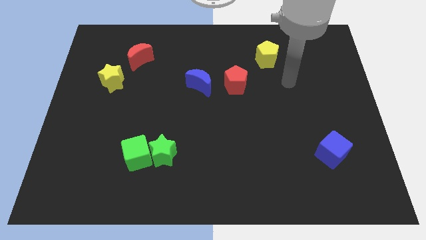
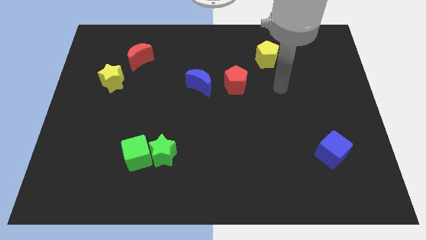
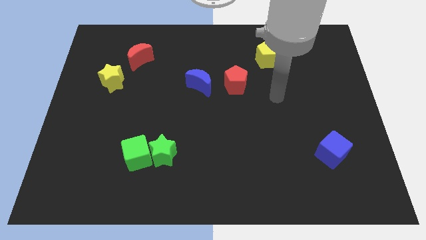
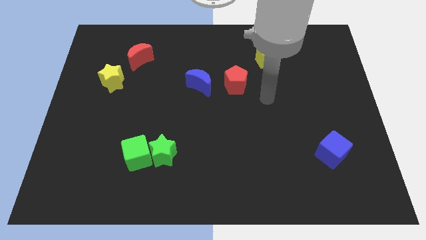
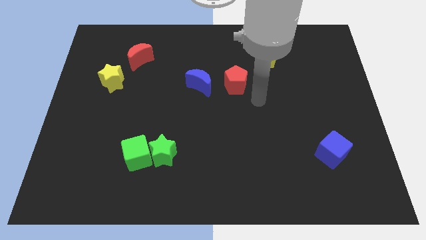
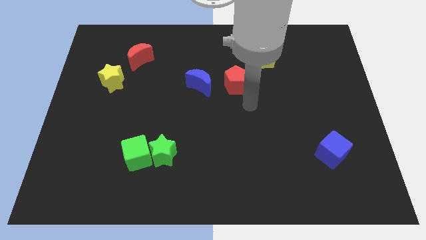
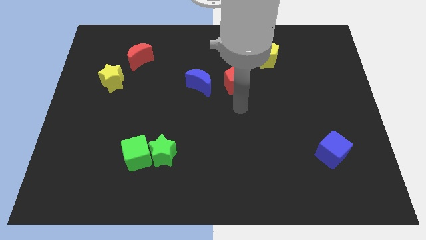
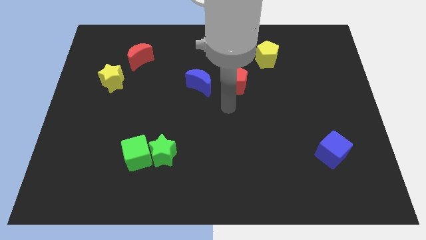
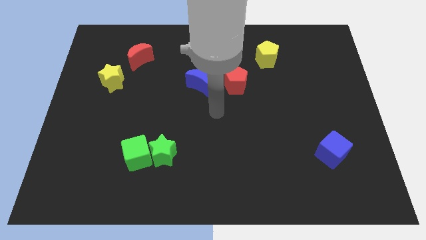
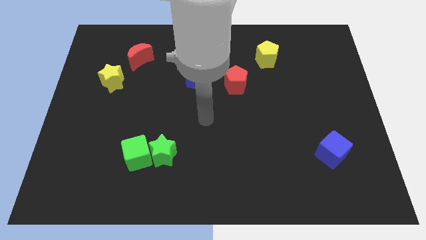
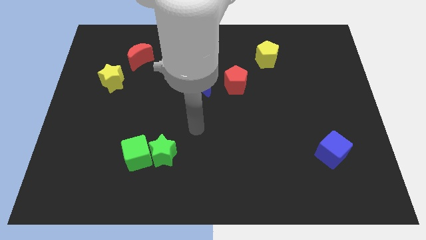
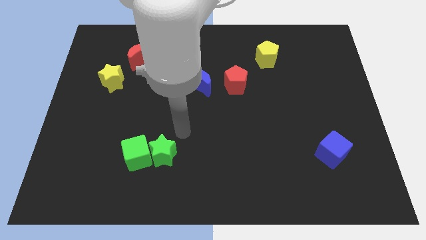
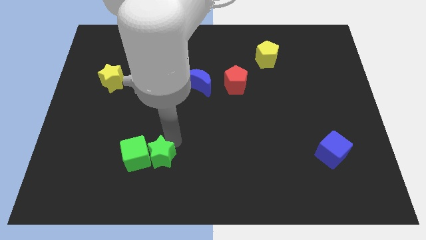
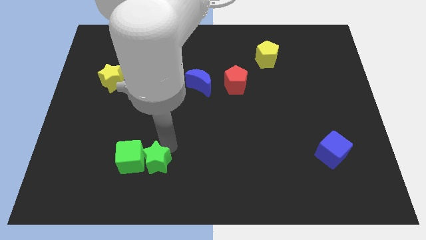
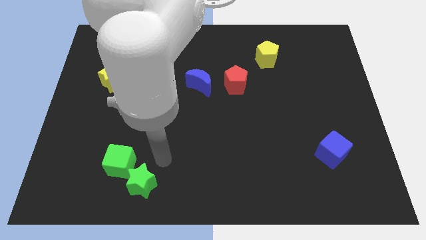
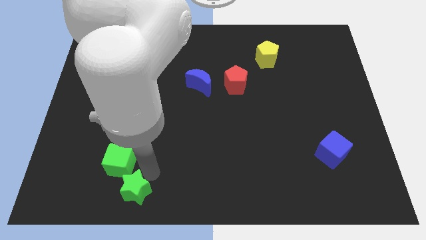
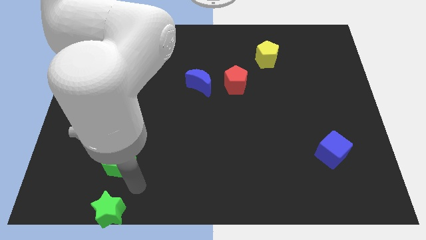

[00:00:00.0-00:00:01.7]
separate the green cube from the green star

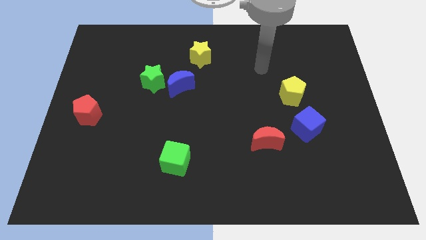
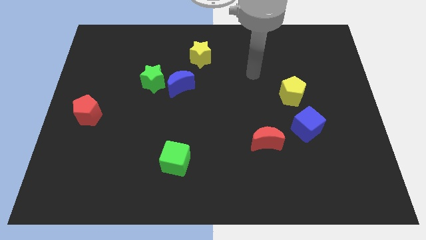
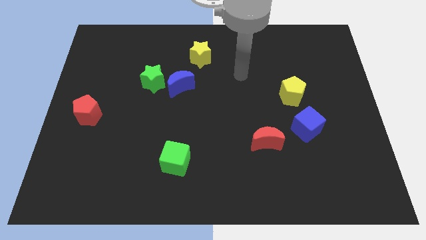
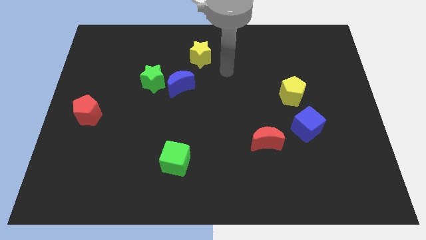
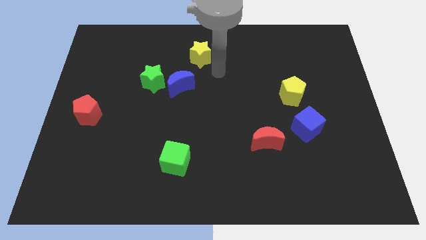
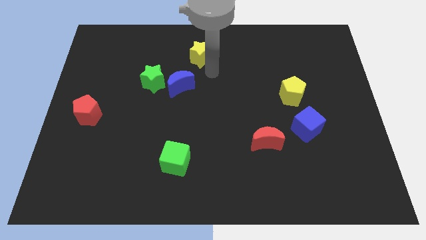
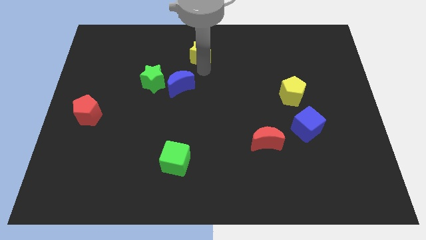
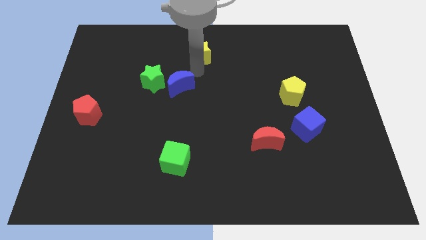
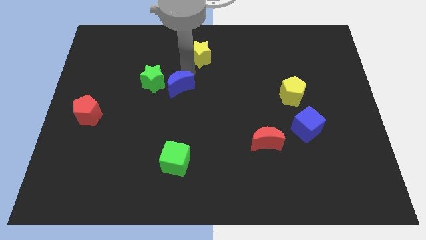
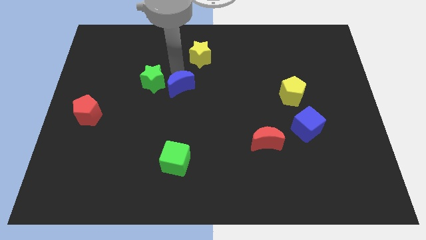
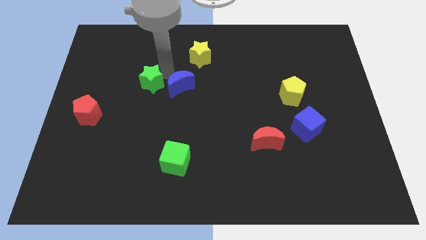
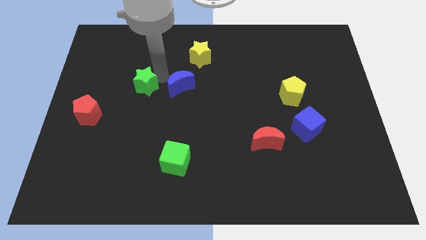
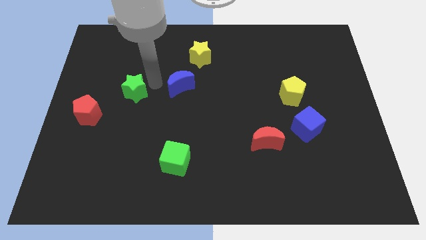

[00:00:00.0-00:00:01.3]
pull the blue moon apart from the green star

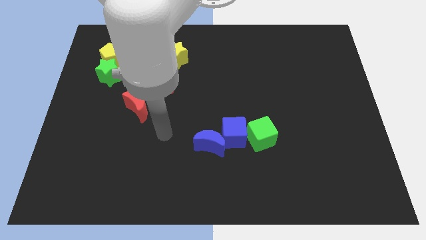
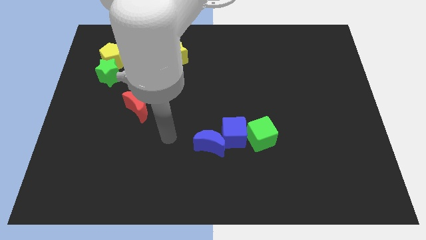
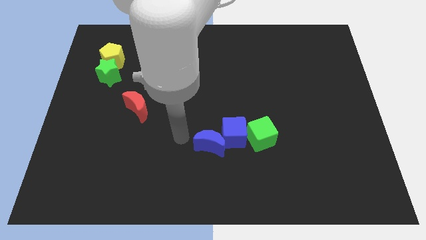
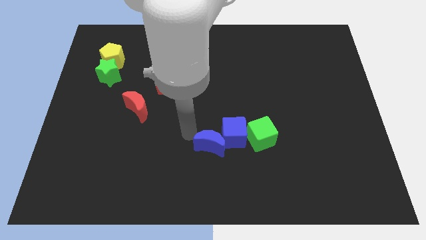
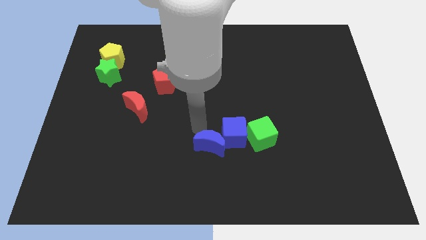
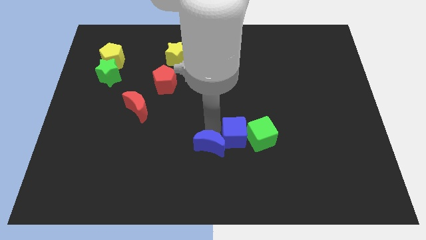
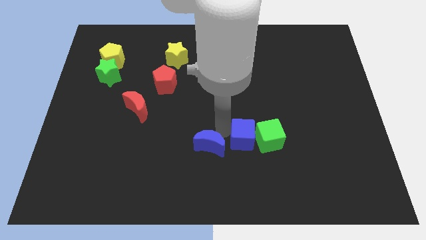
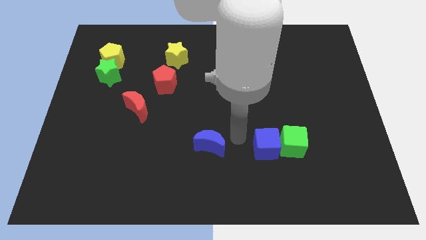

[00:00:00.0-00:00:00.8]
move the blue moon away from the blue cube

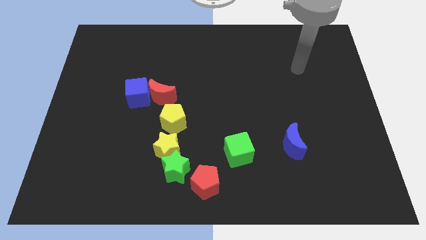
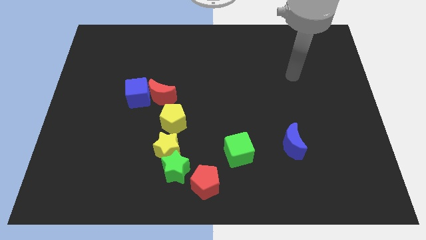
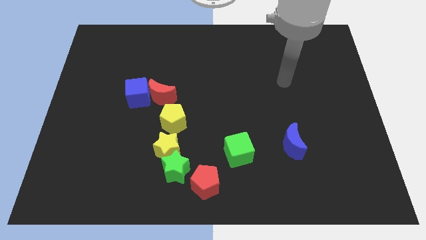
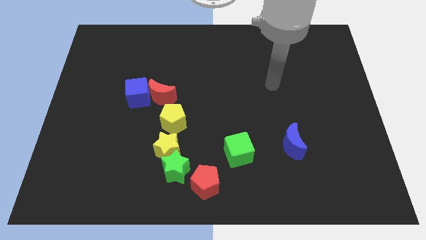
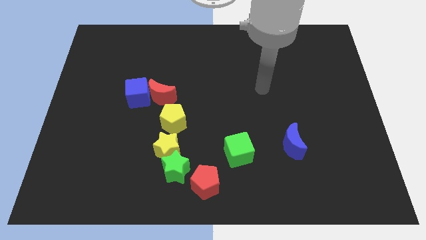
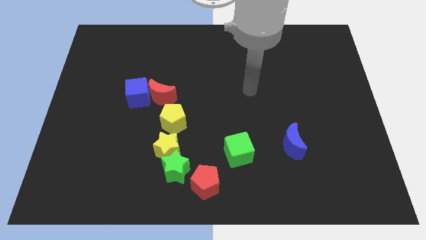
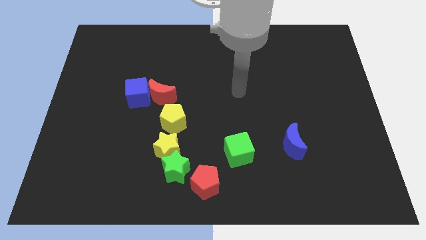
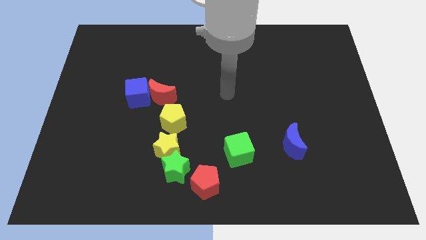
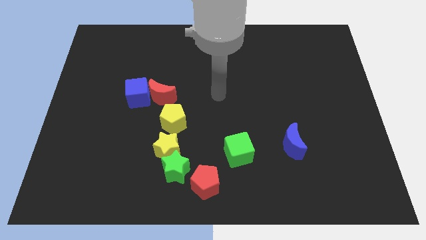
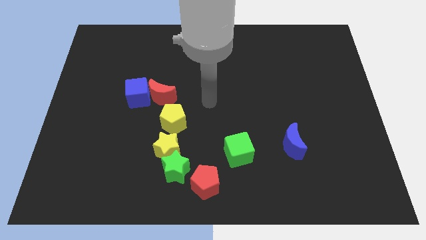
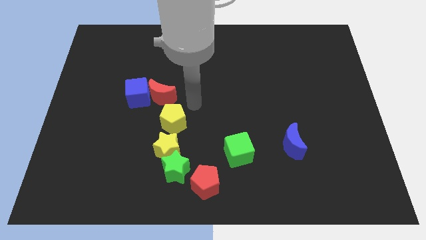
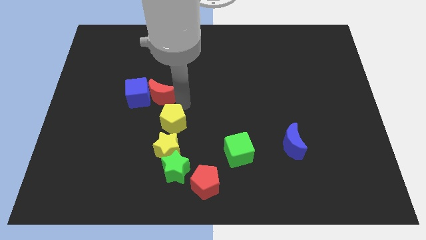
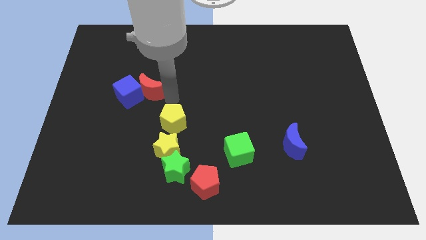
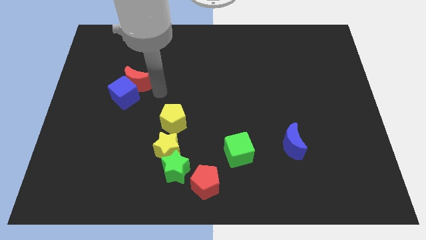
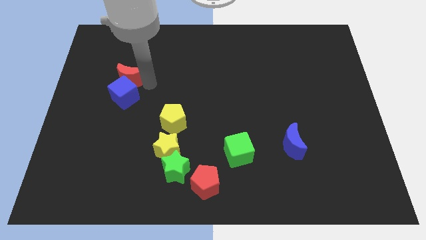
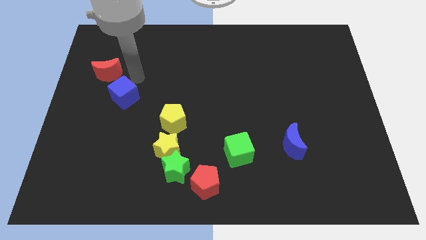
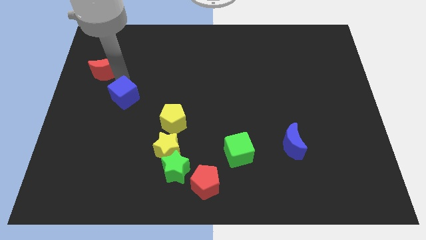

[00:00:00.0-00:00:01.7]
separate the blue cube from the red moon

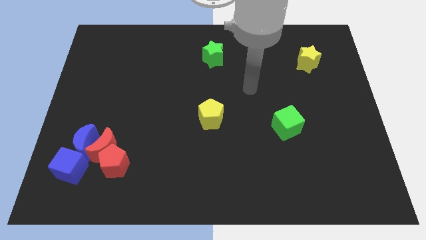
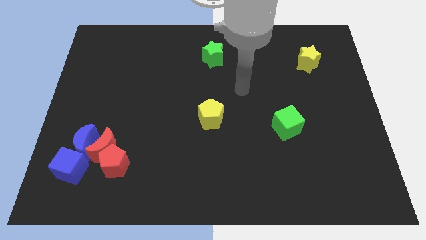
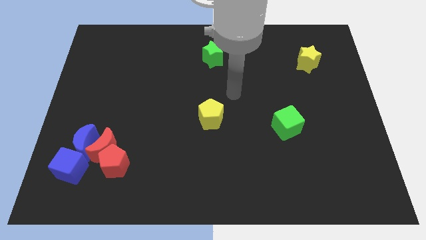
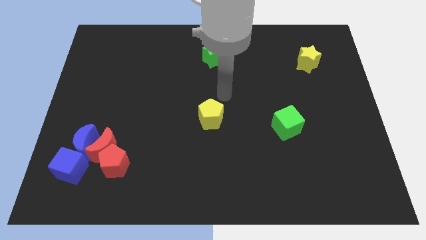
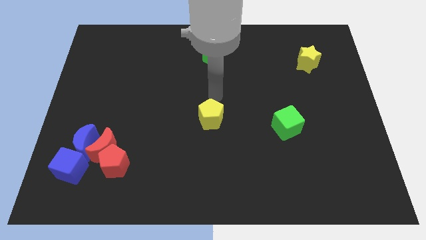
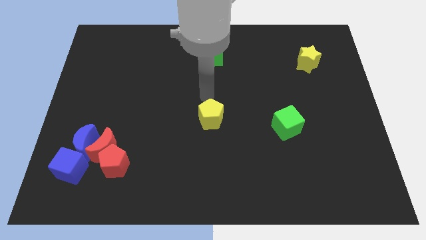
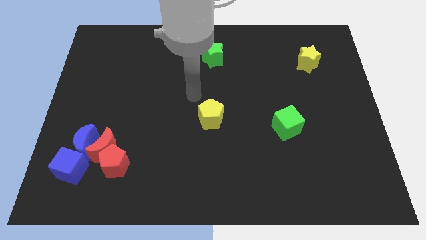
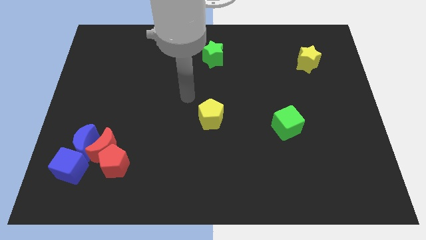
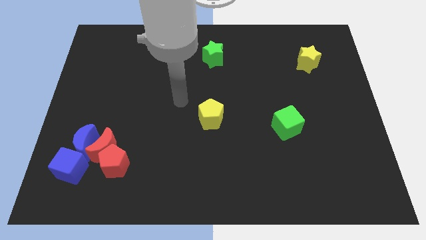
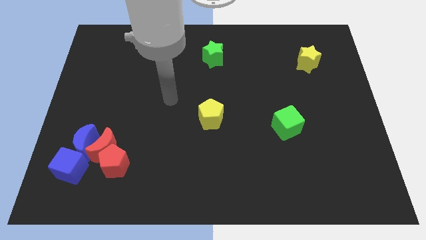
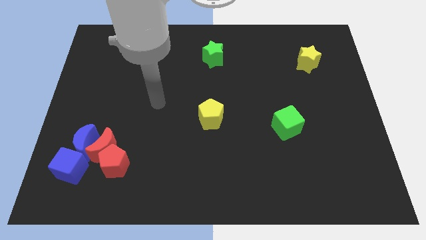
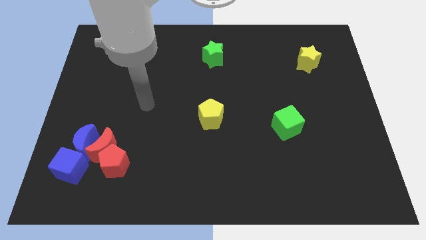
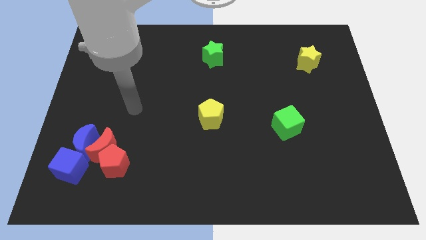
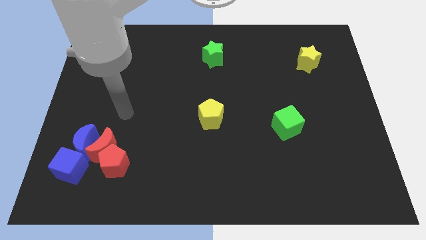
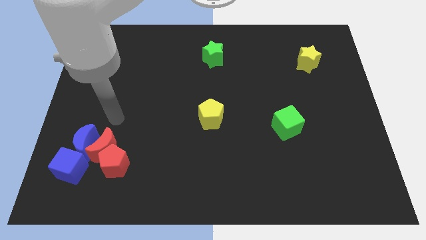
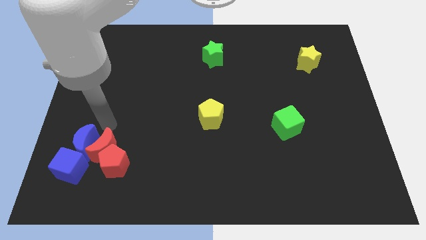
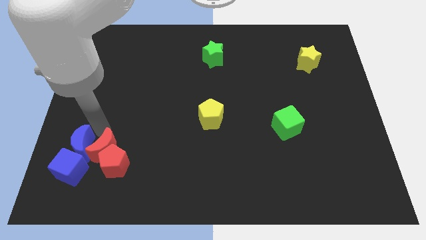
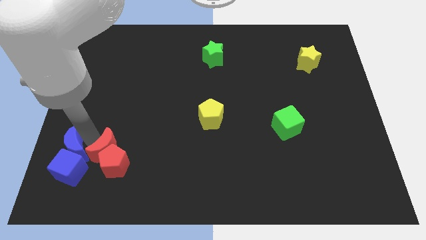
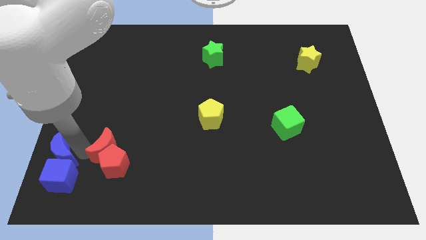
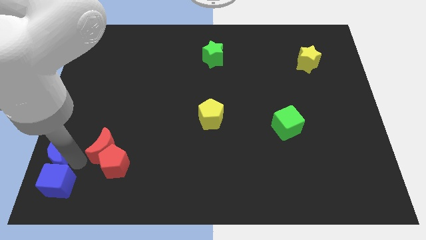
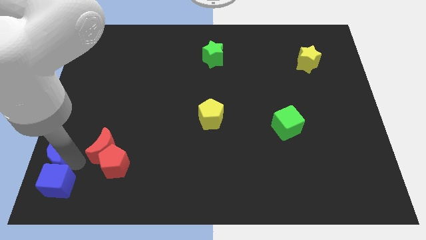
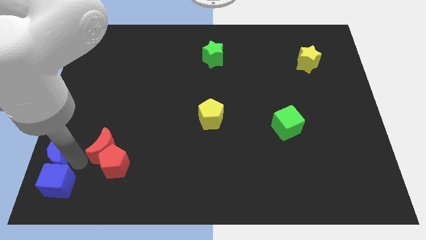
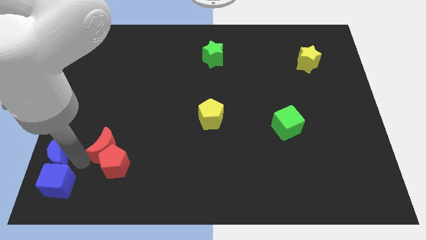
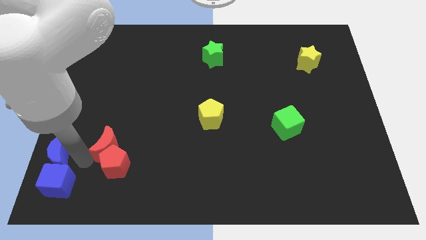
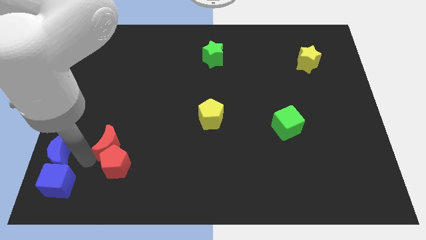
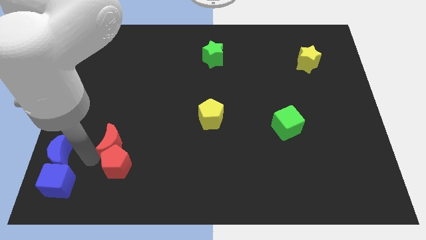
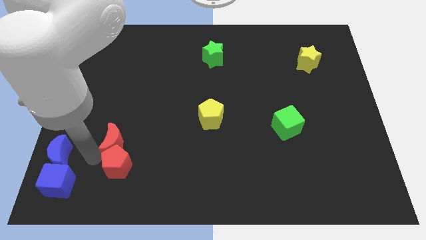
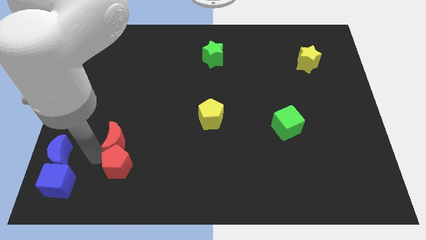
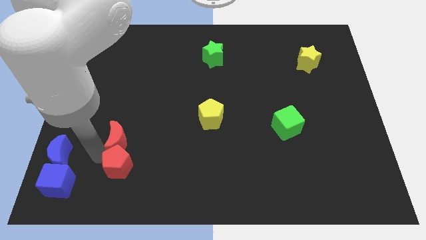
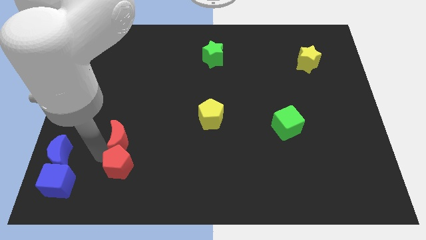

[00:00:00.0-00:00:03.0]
move the red moon away from the red pentagon, blue moon, and blue cube

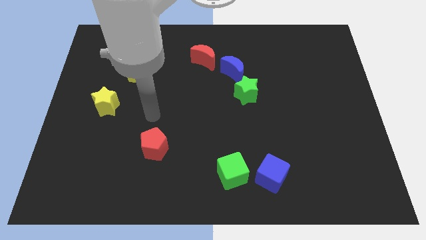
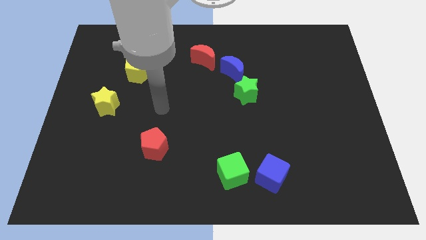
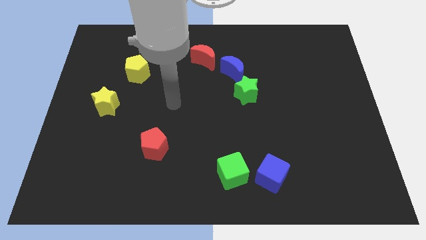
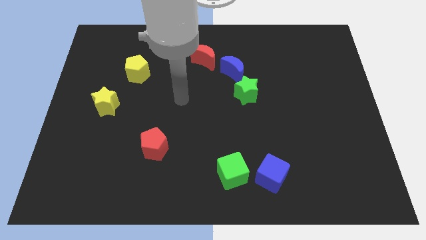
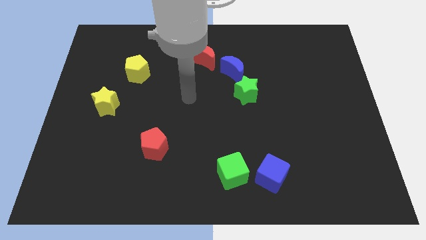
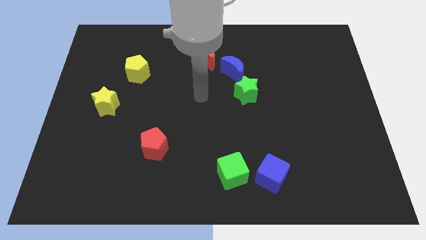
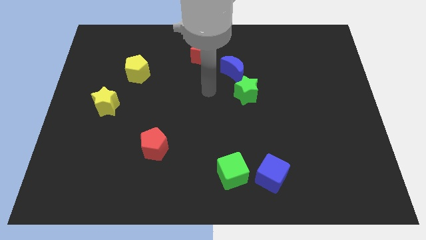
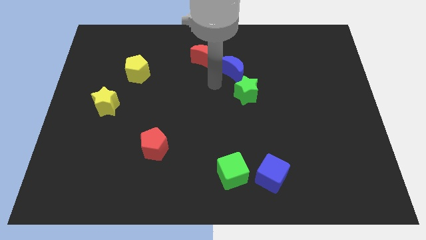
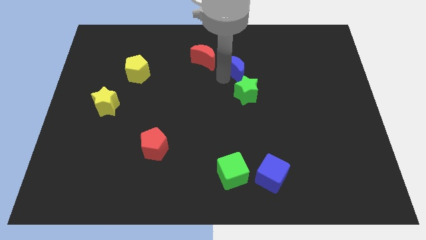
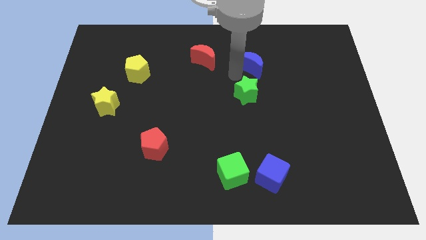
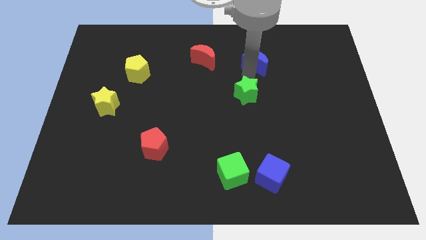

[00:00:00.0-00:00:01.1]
move the green star away from the blue moon
